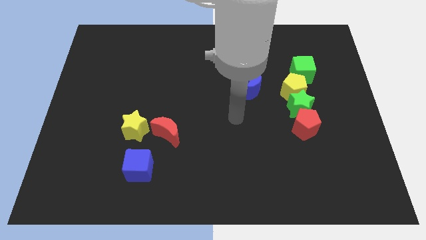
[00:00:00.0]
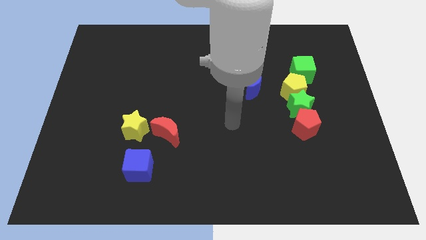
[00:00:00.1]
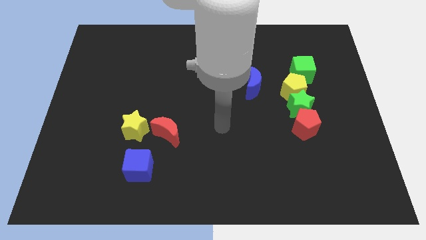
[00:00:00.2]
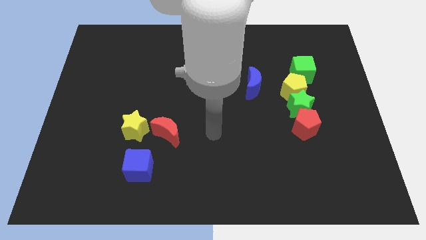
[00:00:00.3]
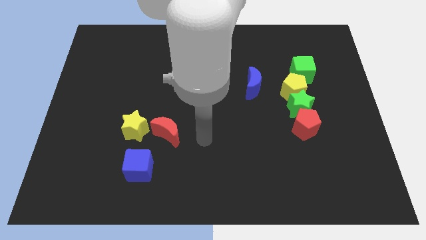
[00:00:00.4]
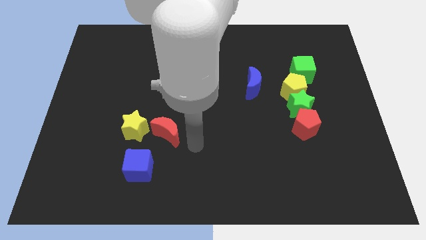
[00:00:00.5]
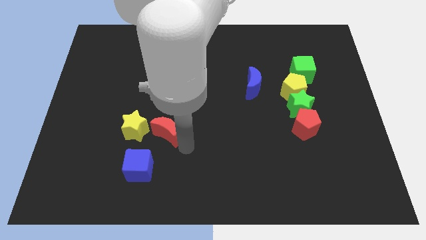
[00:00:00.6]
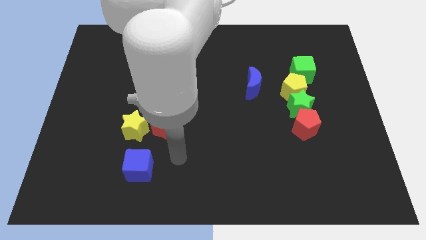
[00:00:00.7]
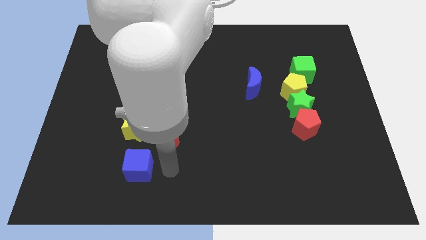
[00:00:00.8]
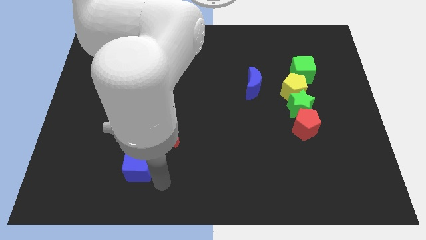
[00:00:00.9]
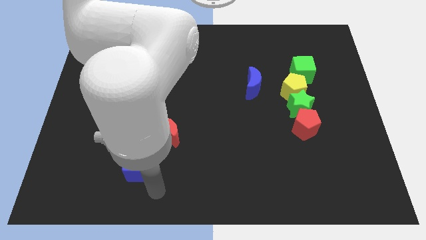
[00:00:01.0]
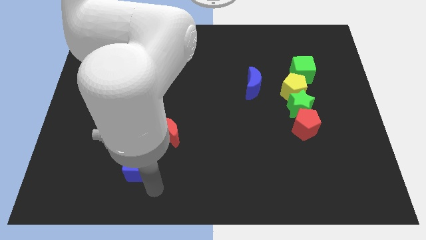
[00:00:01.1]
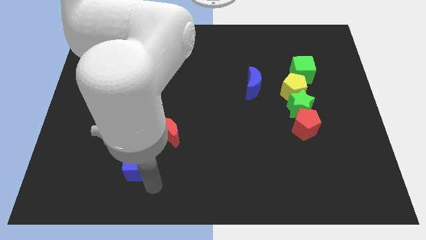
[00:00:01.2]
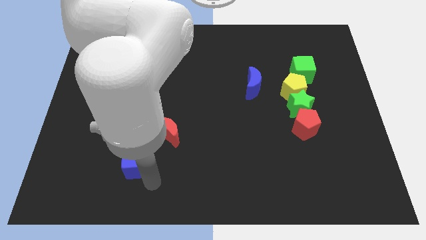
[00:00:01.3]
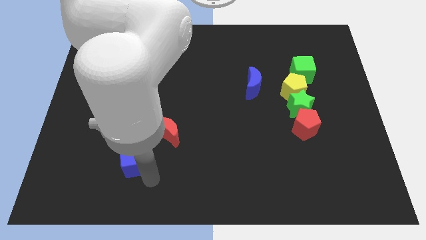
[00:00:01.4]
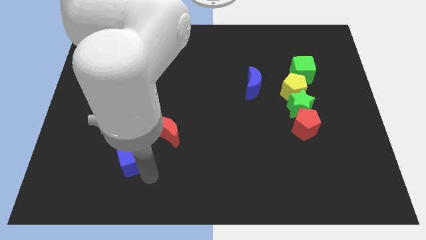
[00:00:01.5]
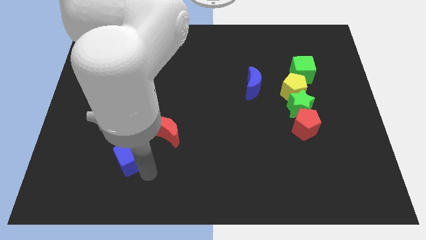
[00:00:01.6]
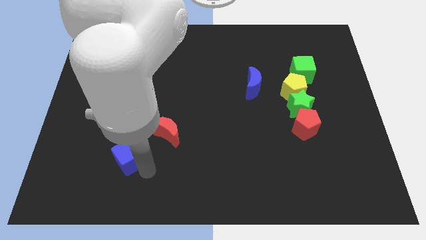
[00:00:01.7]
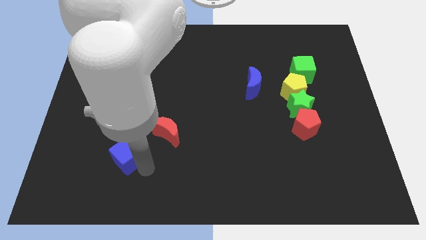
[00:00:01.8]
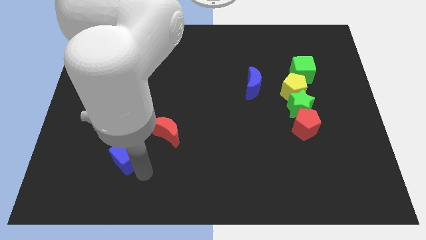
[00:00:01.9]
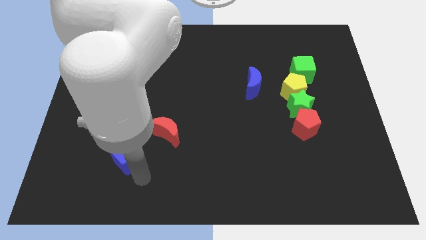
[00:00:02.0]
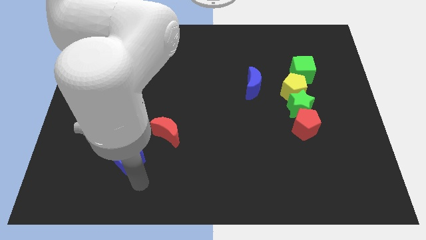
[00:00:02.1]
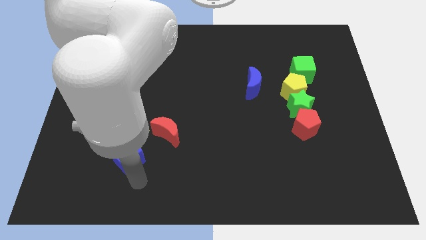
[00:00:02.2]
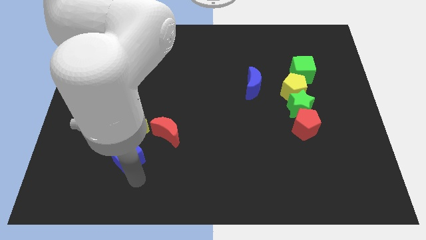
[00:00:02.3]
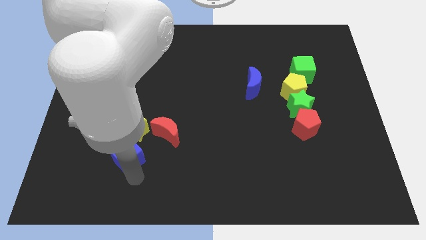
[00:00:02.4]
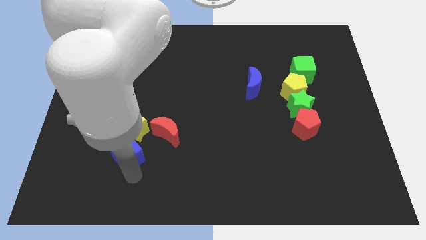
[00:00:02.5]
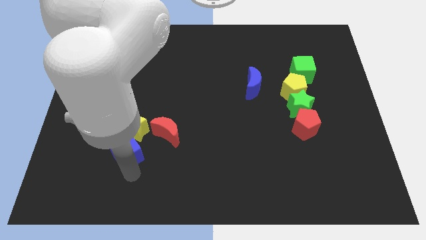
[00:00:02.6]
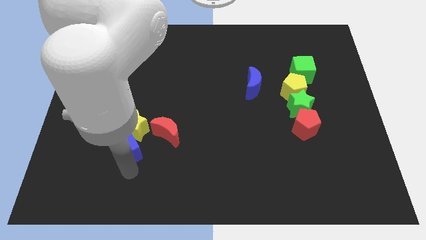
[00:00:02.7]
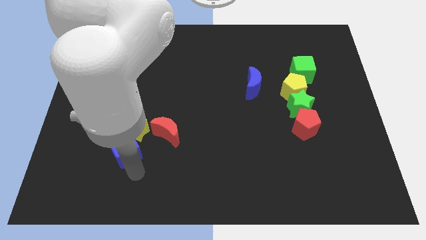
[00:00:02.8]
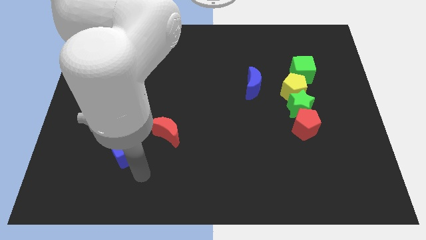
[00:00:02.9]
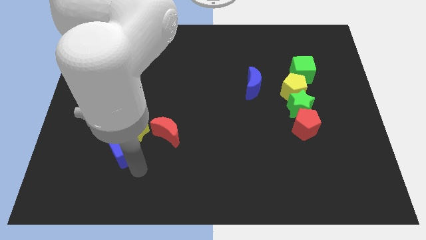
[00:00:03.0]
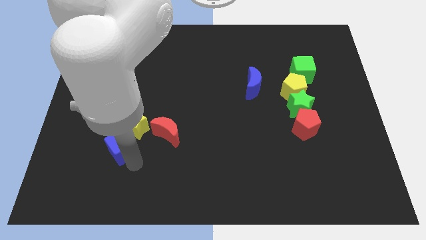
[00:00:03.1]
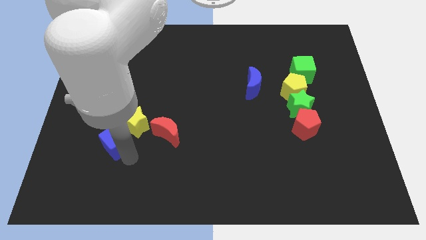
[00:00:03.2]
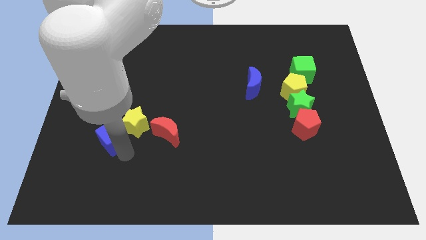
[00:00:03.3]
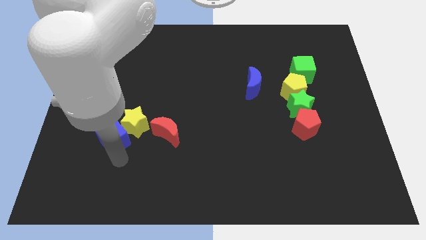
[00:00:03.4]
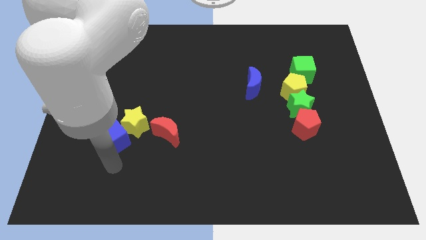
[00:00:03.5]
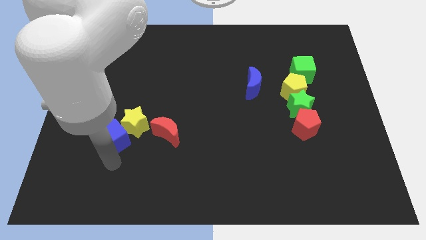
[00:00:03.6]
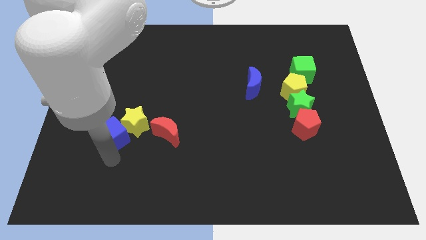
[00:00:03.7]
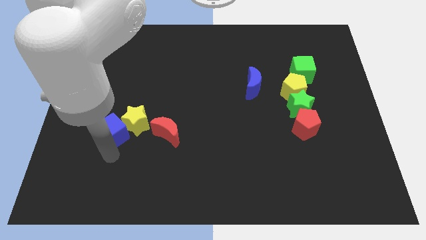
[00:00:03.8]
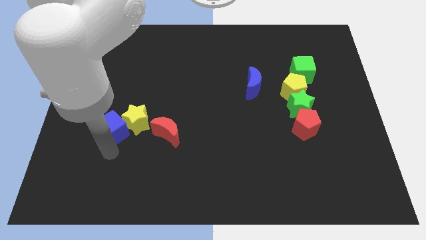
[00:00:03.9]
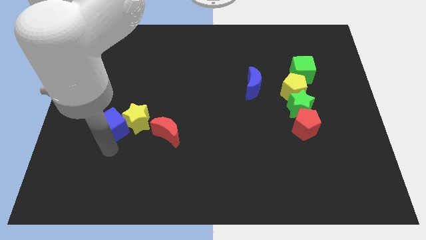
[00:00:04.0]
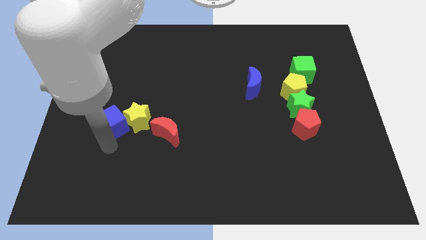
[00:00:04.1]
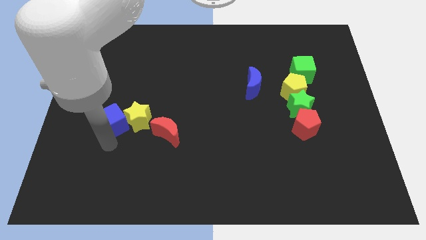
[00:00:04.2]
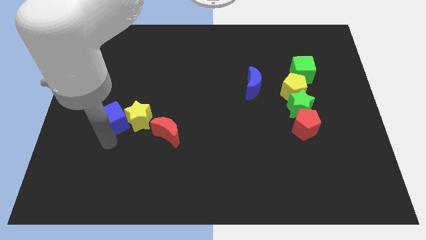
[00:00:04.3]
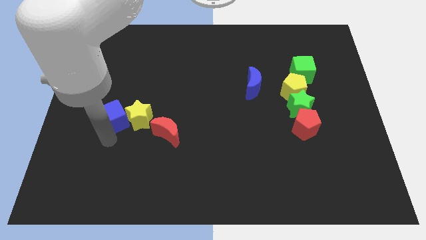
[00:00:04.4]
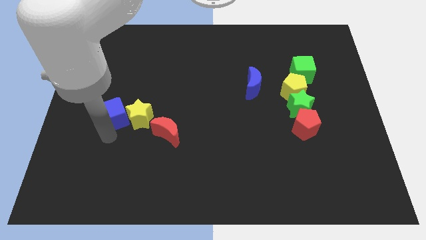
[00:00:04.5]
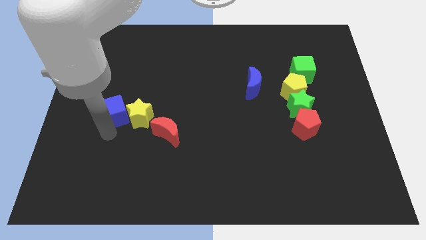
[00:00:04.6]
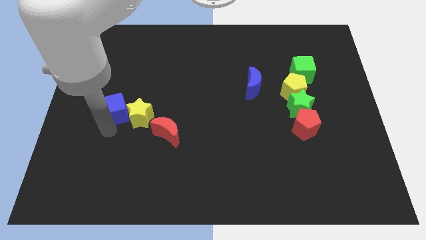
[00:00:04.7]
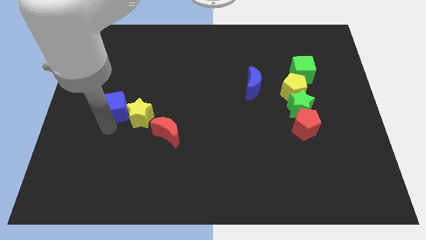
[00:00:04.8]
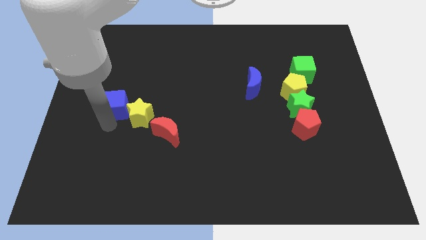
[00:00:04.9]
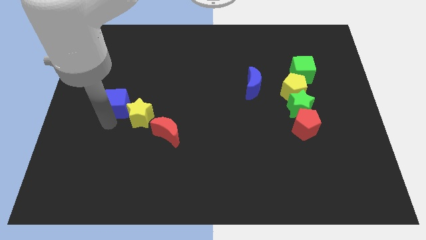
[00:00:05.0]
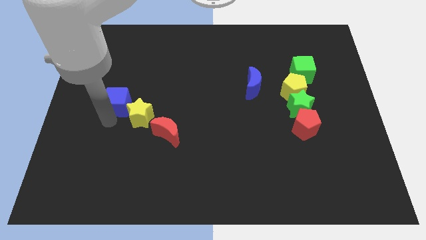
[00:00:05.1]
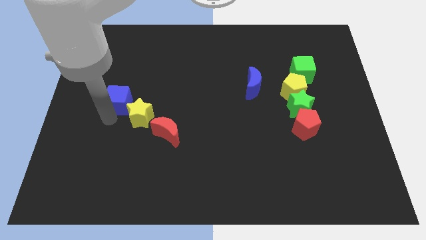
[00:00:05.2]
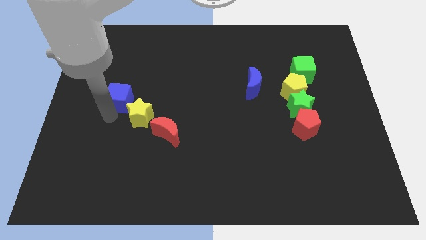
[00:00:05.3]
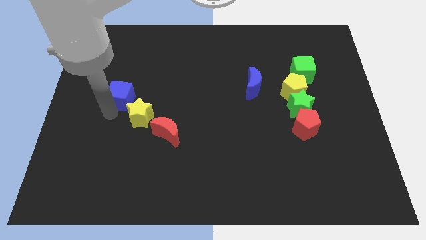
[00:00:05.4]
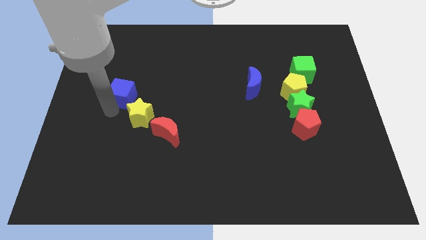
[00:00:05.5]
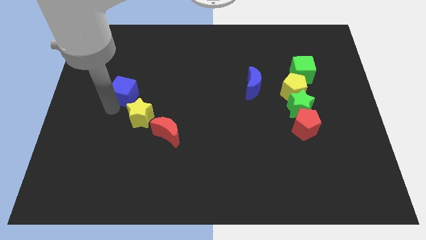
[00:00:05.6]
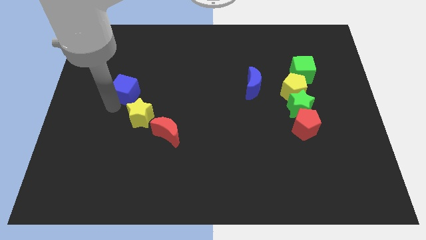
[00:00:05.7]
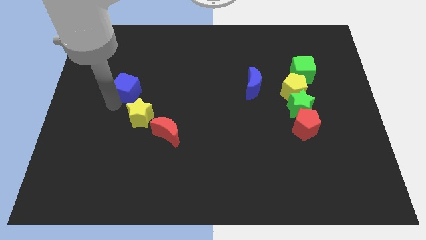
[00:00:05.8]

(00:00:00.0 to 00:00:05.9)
push the blue cube up

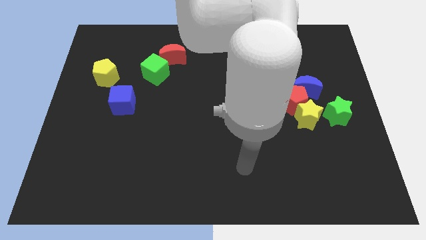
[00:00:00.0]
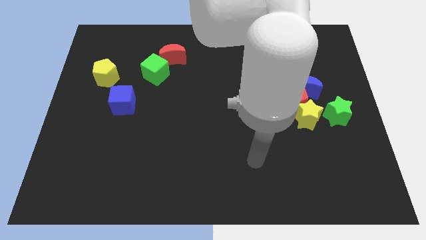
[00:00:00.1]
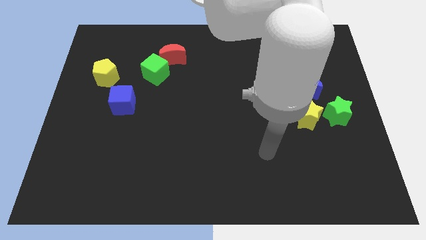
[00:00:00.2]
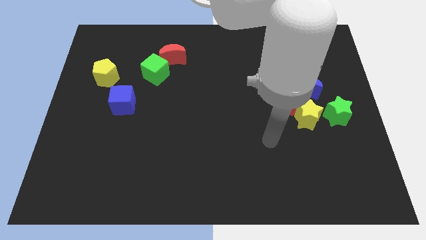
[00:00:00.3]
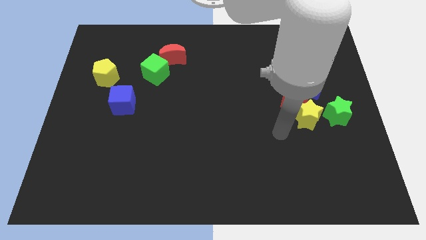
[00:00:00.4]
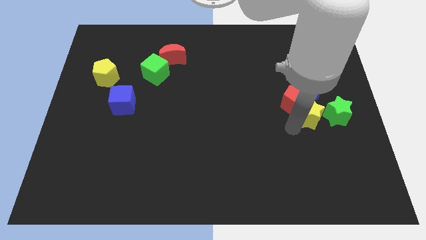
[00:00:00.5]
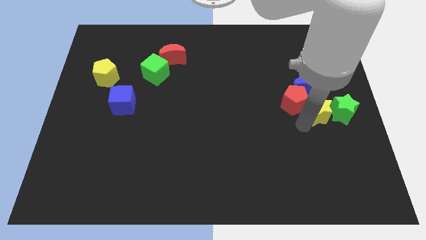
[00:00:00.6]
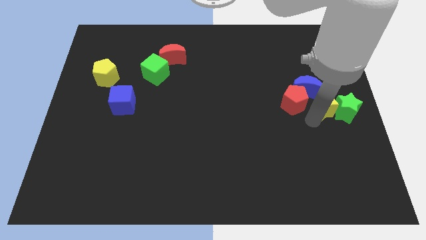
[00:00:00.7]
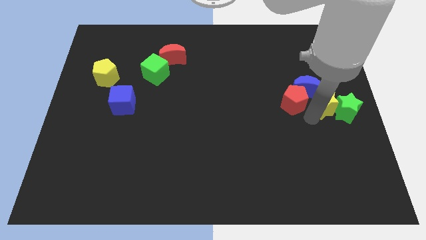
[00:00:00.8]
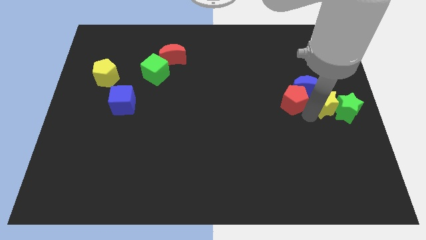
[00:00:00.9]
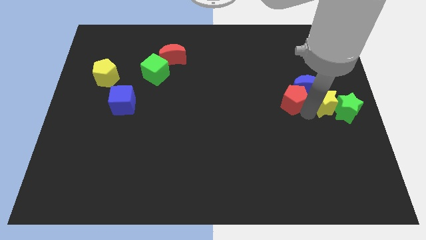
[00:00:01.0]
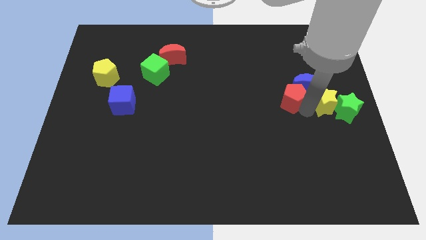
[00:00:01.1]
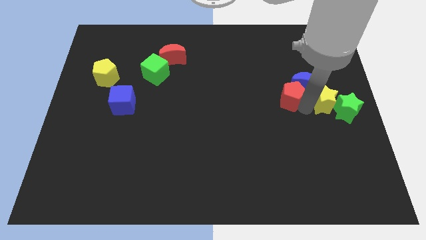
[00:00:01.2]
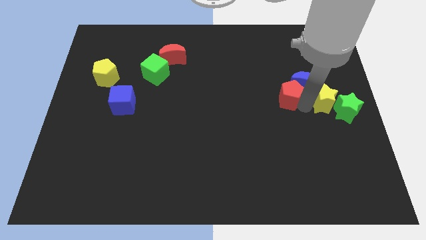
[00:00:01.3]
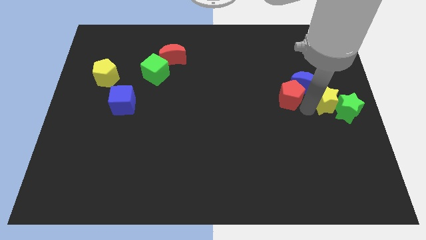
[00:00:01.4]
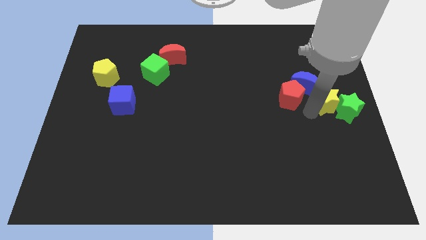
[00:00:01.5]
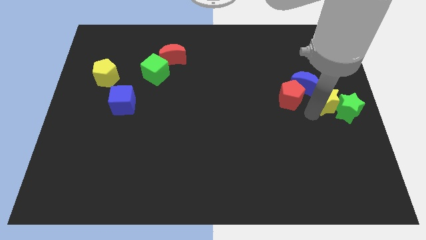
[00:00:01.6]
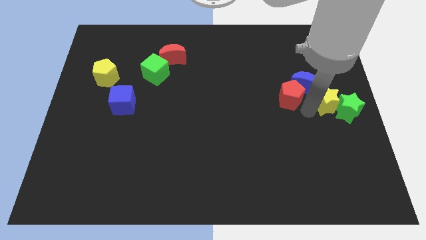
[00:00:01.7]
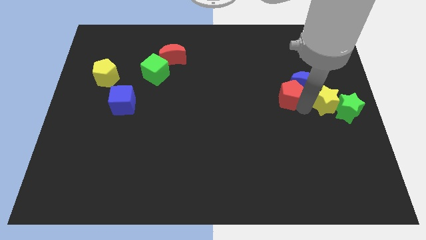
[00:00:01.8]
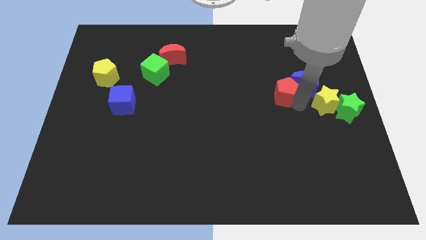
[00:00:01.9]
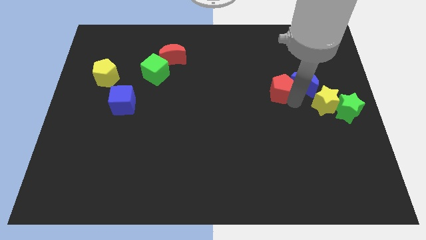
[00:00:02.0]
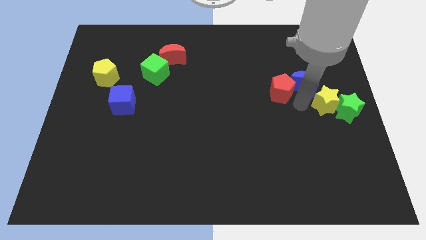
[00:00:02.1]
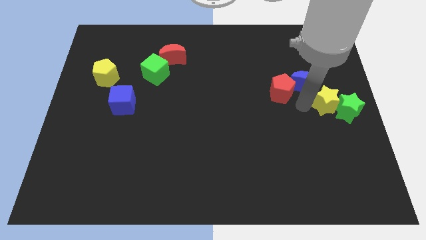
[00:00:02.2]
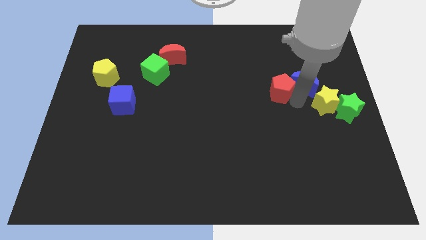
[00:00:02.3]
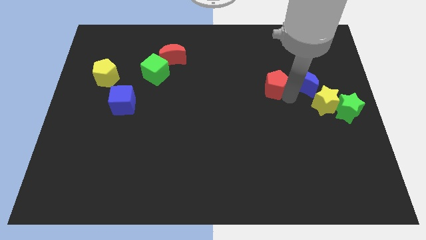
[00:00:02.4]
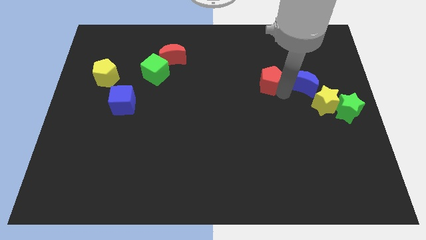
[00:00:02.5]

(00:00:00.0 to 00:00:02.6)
slide the red pentagon diagonally up and left slightly
